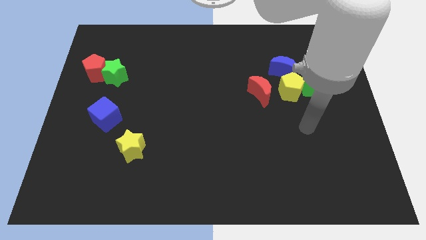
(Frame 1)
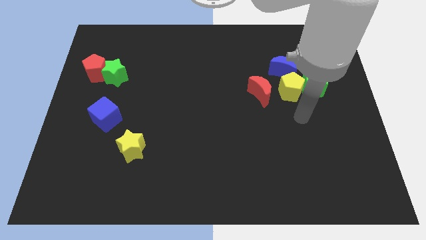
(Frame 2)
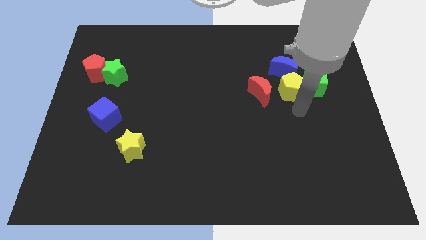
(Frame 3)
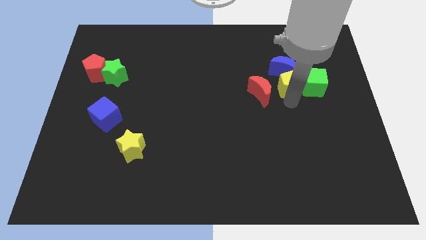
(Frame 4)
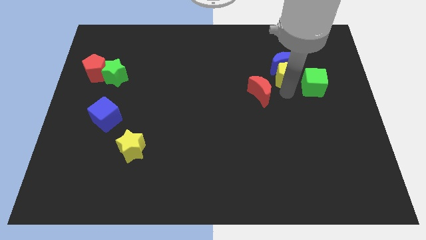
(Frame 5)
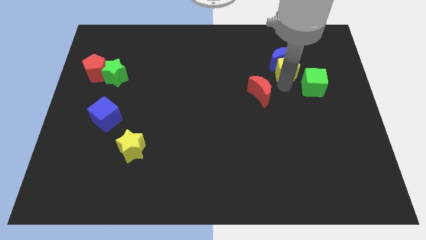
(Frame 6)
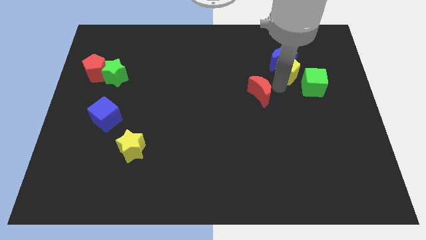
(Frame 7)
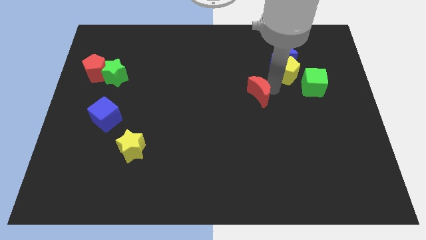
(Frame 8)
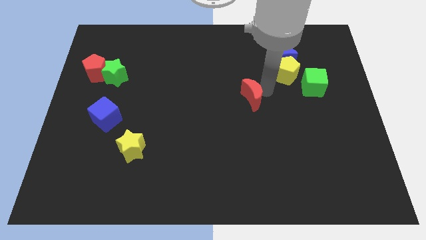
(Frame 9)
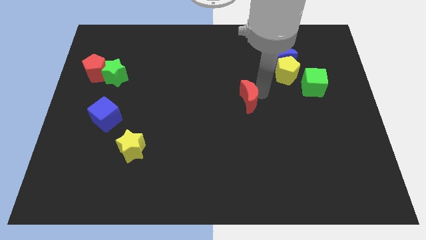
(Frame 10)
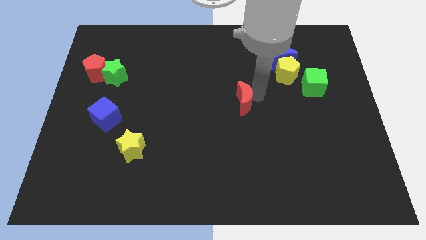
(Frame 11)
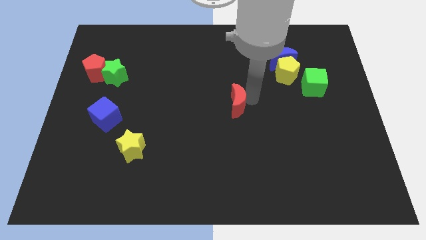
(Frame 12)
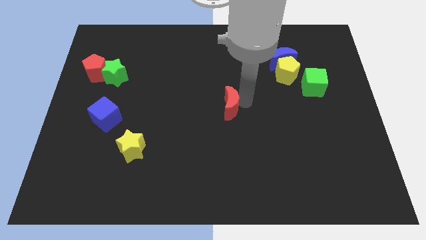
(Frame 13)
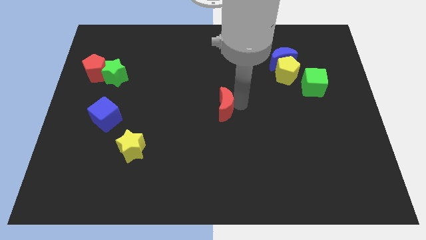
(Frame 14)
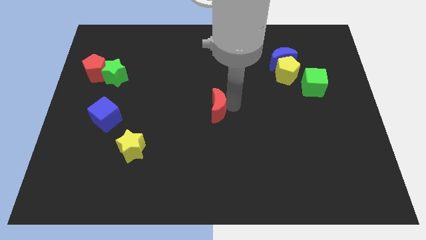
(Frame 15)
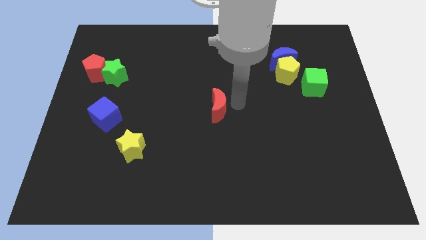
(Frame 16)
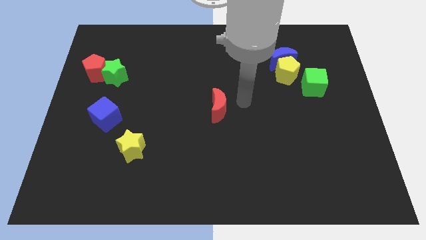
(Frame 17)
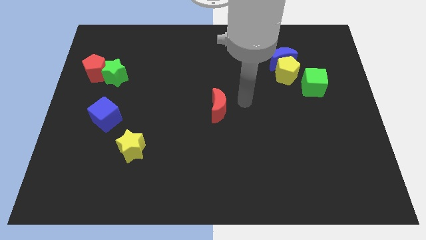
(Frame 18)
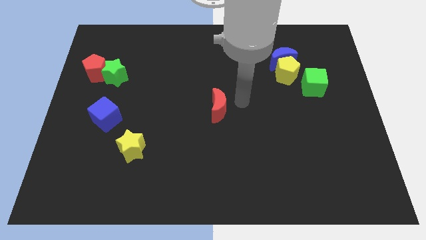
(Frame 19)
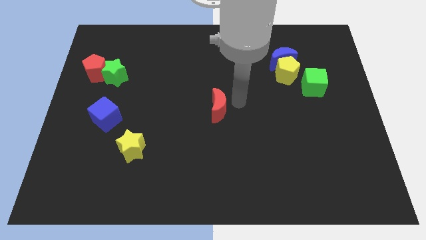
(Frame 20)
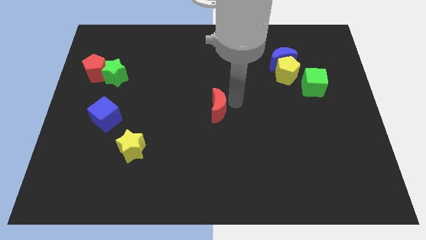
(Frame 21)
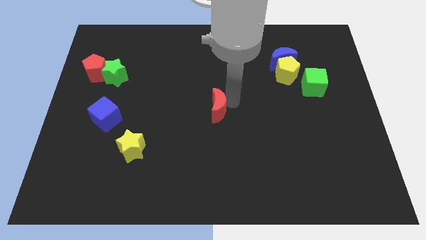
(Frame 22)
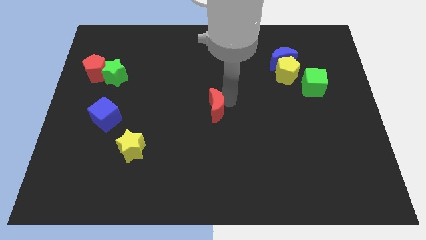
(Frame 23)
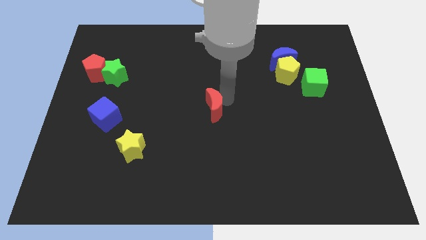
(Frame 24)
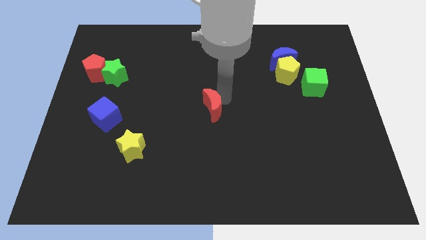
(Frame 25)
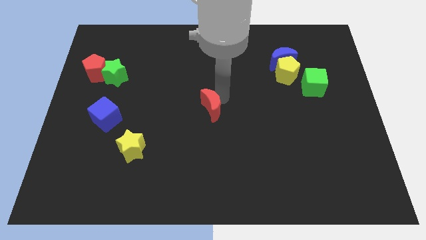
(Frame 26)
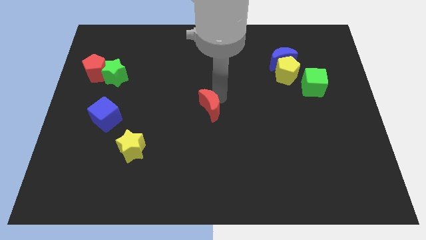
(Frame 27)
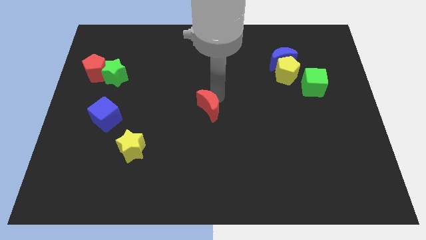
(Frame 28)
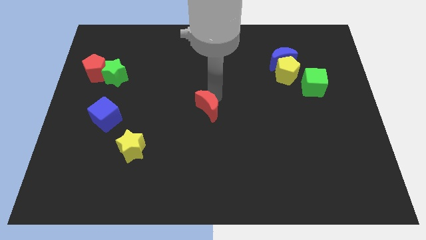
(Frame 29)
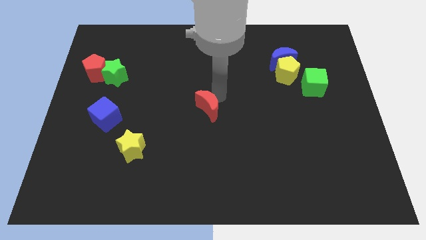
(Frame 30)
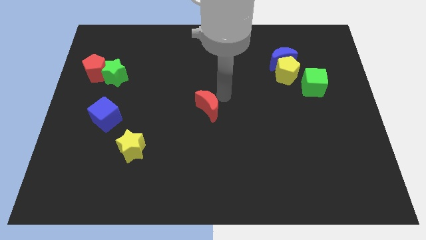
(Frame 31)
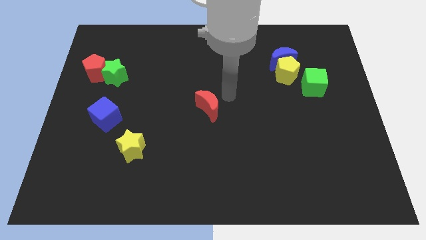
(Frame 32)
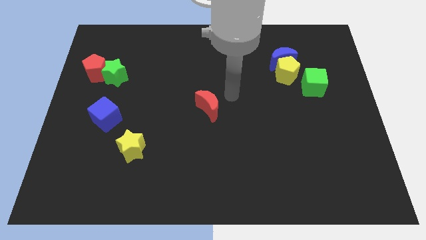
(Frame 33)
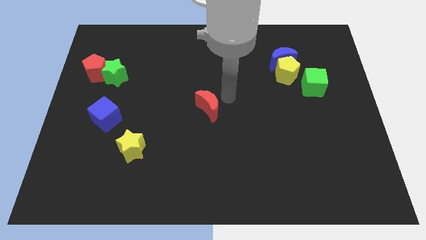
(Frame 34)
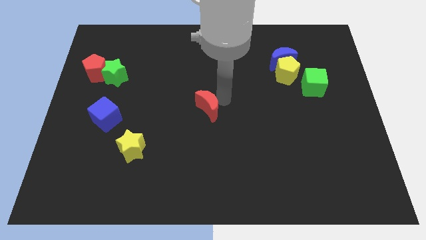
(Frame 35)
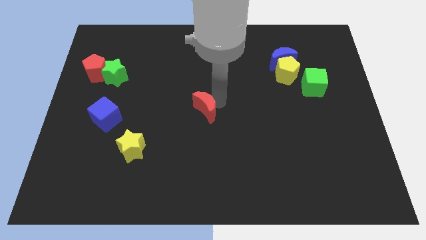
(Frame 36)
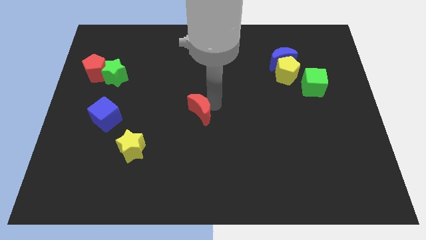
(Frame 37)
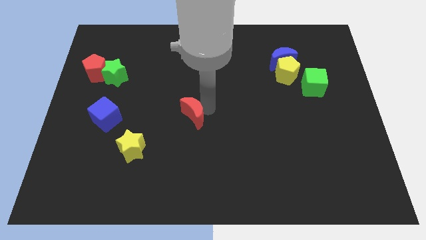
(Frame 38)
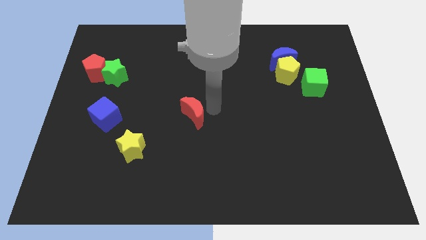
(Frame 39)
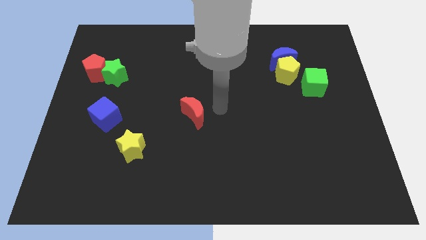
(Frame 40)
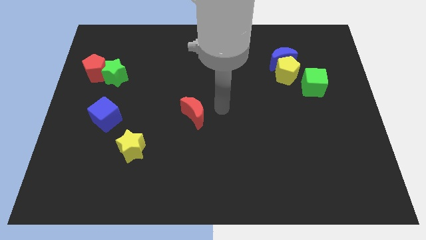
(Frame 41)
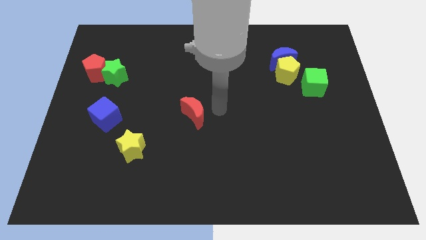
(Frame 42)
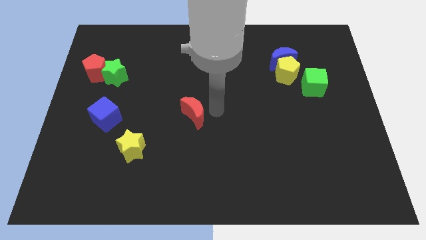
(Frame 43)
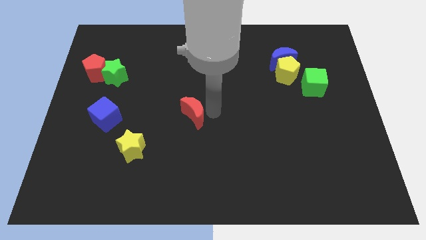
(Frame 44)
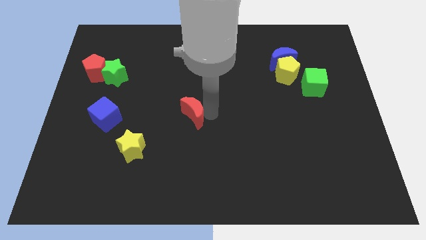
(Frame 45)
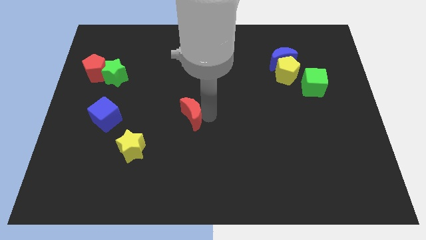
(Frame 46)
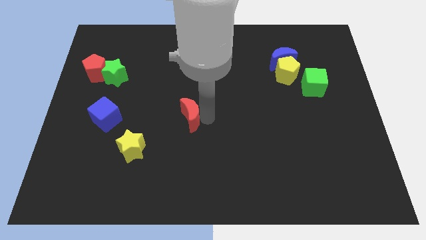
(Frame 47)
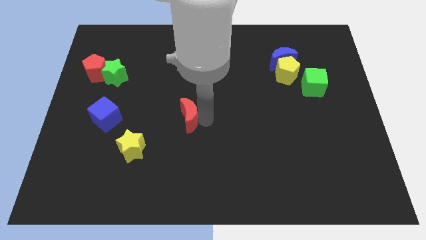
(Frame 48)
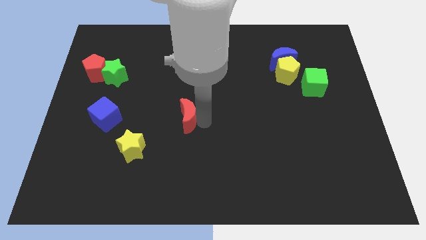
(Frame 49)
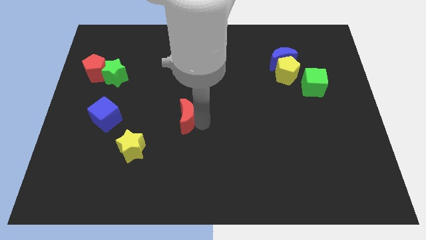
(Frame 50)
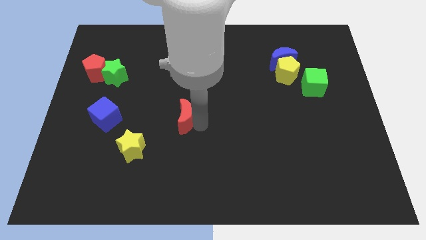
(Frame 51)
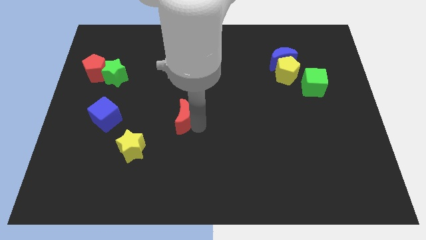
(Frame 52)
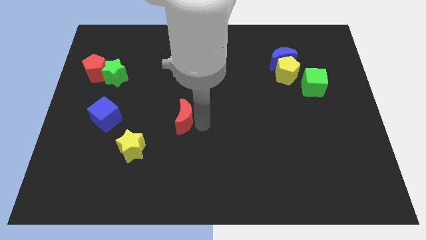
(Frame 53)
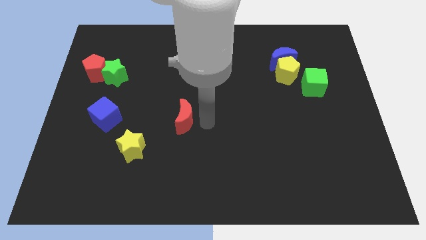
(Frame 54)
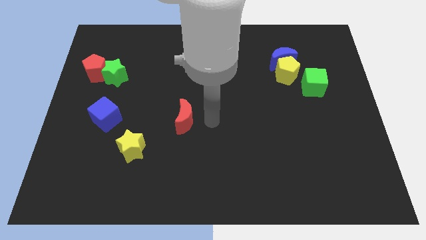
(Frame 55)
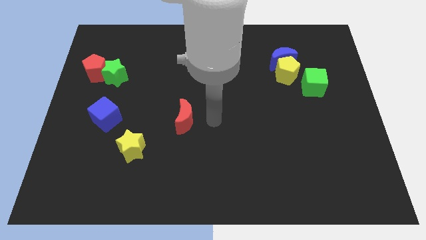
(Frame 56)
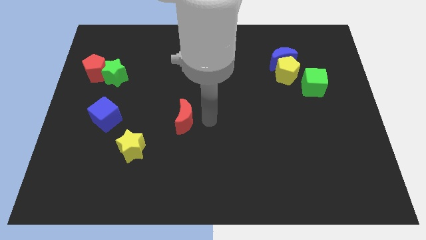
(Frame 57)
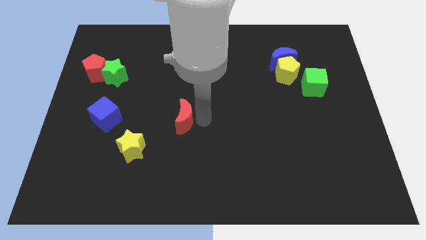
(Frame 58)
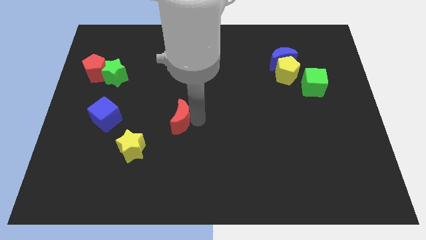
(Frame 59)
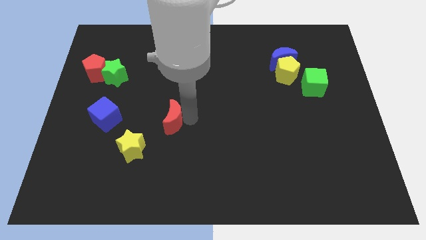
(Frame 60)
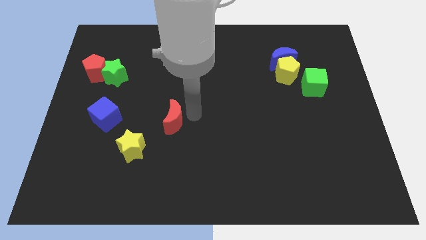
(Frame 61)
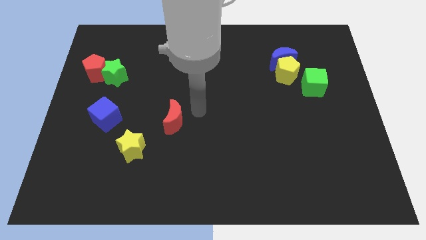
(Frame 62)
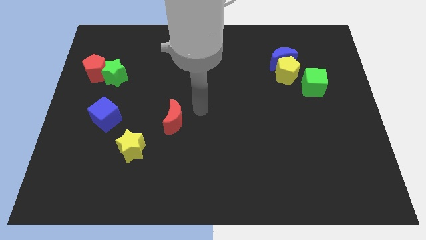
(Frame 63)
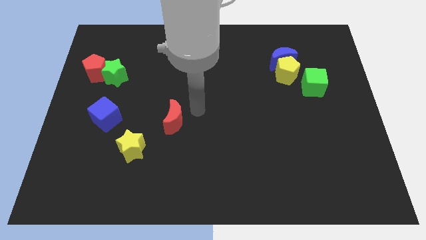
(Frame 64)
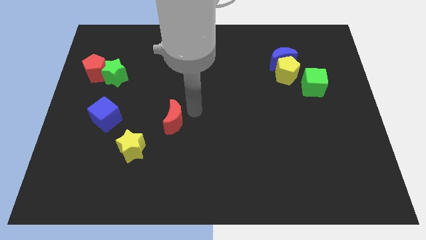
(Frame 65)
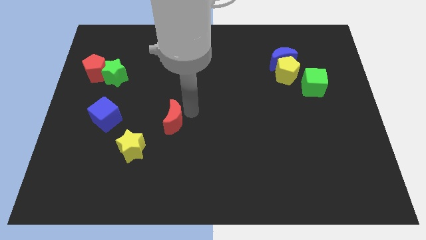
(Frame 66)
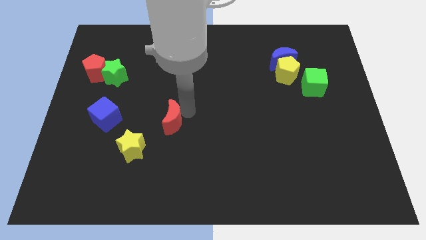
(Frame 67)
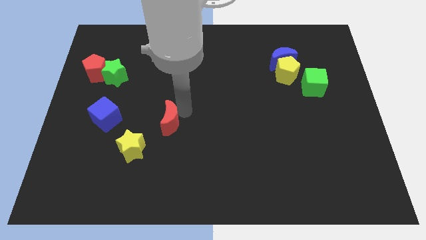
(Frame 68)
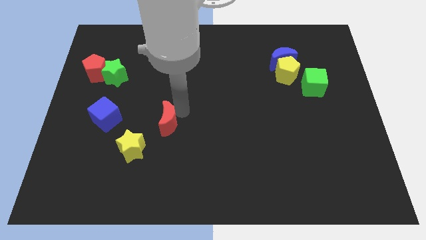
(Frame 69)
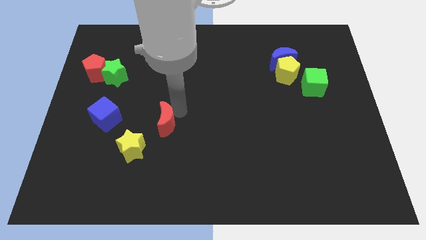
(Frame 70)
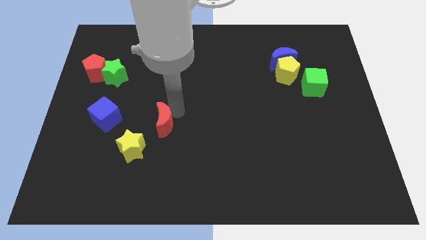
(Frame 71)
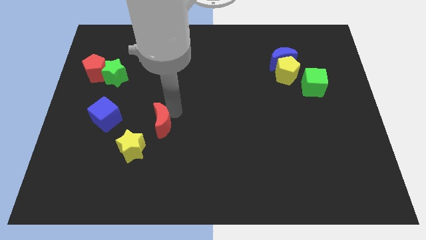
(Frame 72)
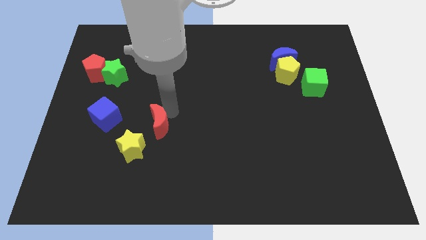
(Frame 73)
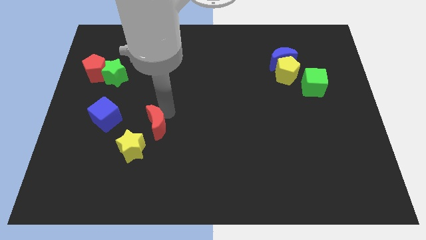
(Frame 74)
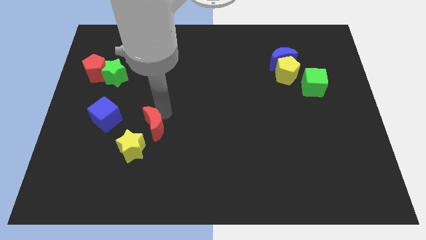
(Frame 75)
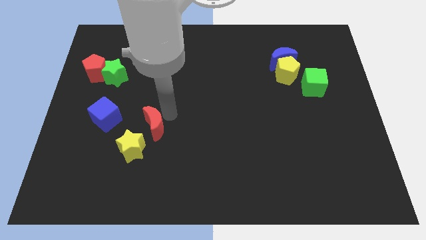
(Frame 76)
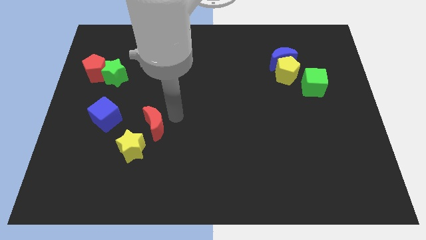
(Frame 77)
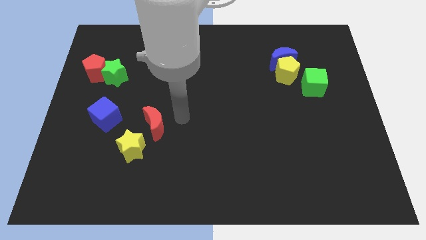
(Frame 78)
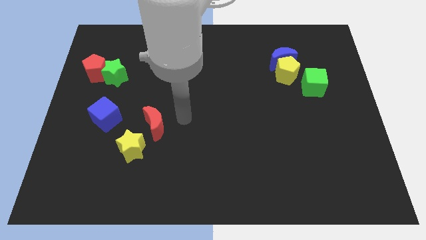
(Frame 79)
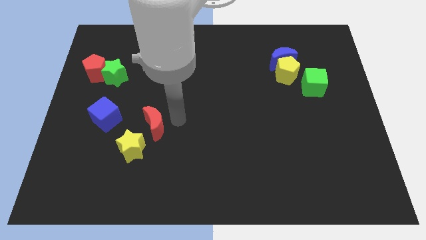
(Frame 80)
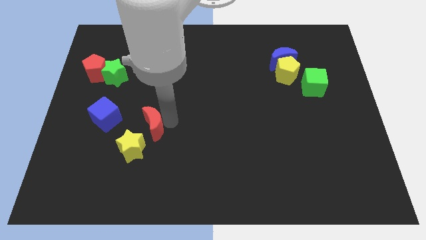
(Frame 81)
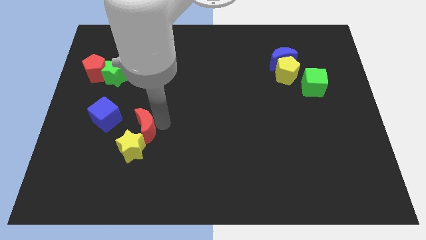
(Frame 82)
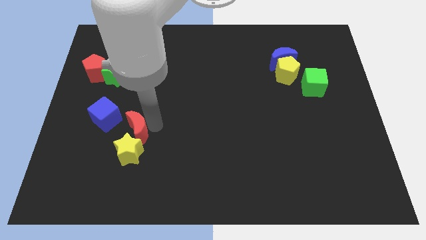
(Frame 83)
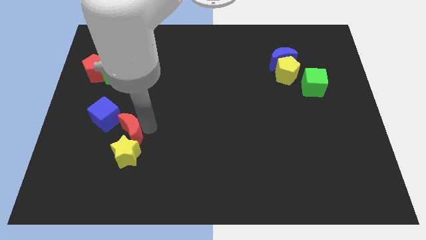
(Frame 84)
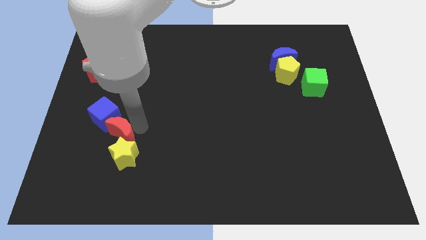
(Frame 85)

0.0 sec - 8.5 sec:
move the red moon to the bottom of the blue cube
